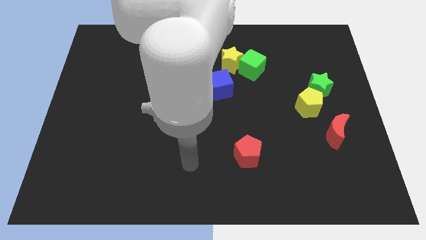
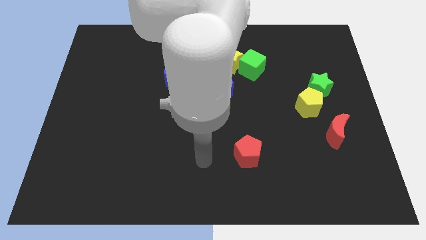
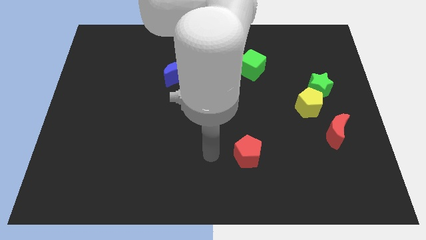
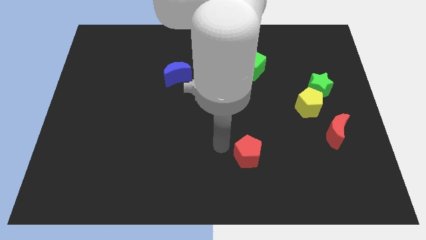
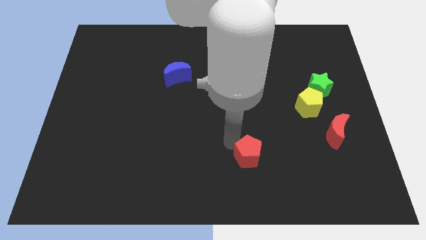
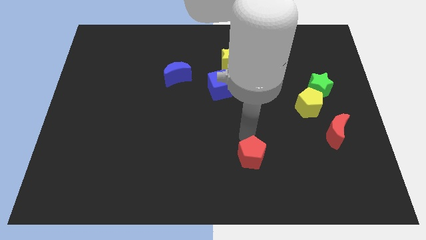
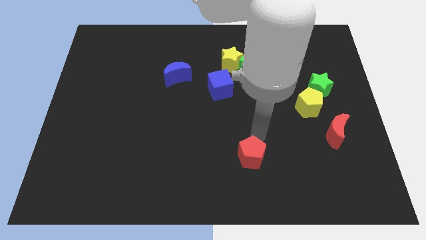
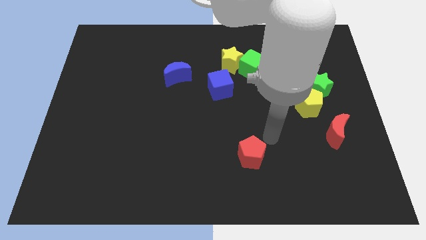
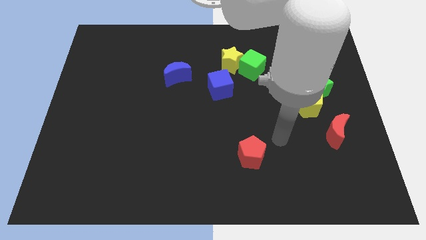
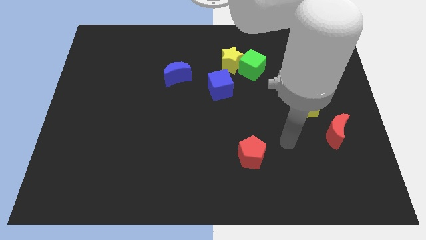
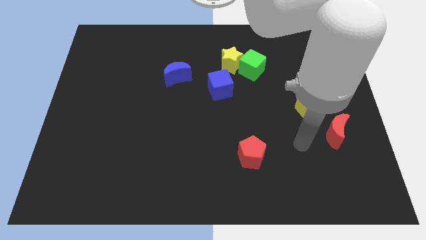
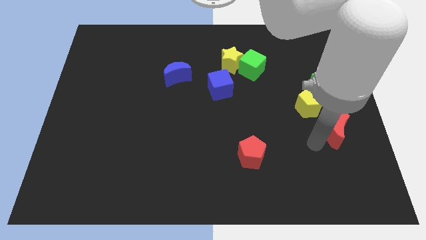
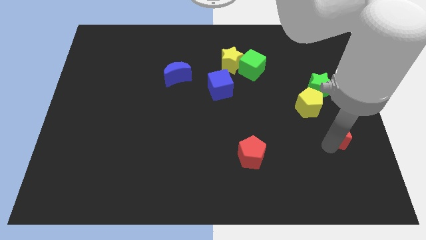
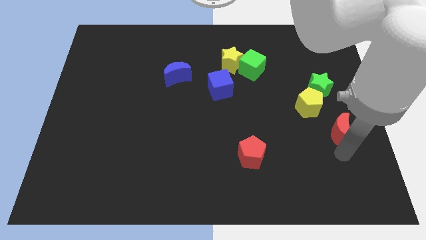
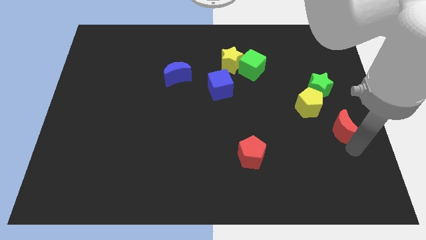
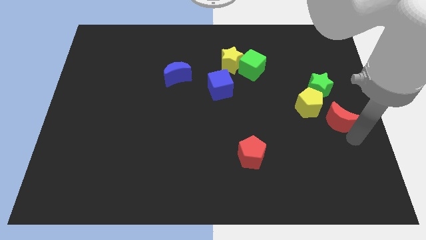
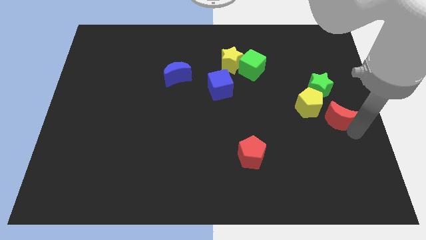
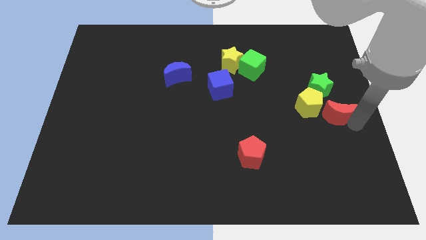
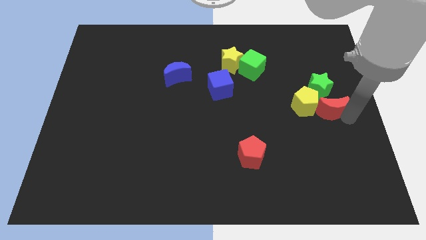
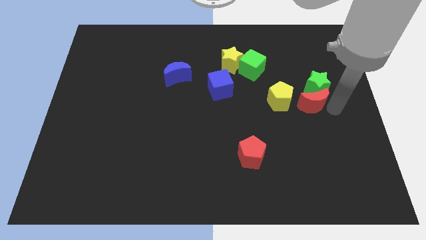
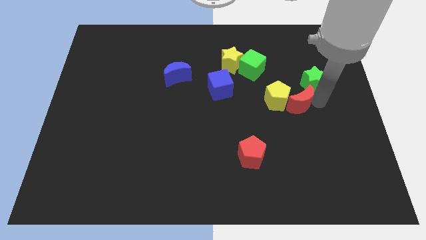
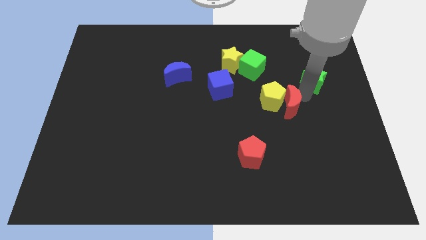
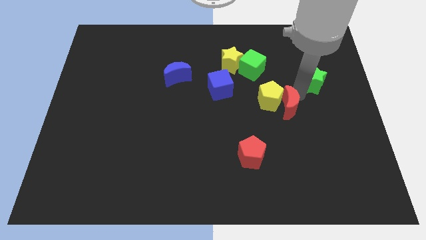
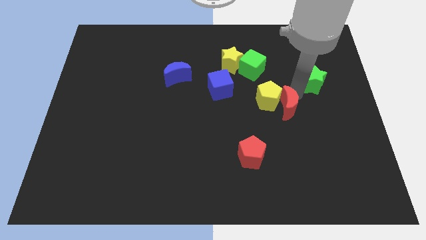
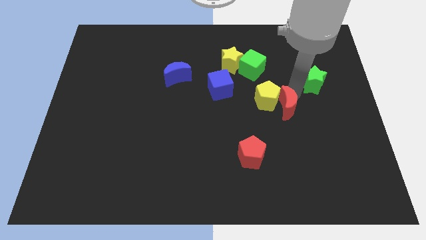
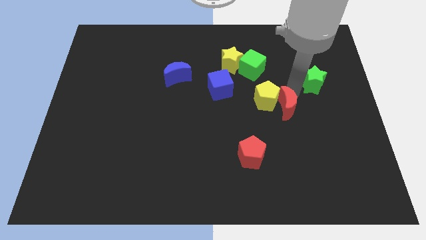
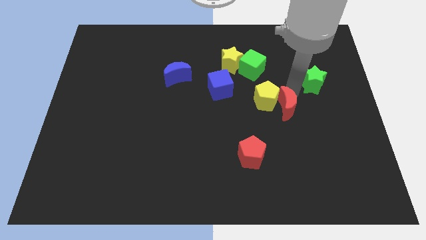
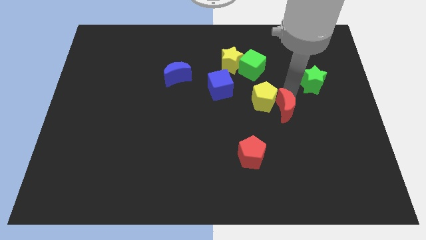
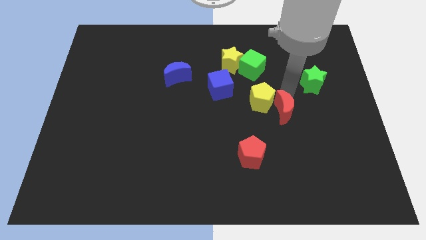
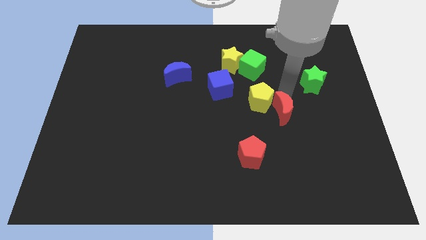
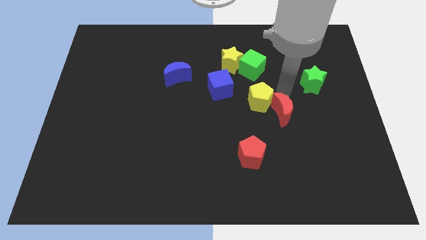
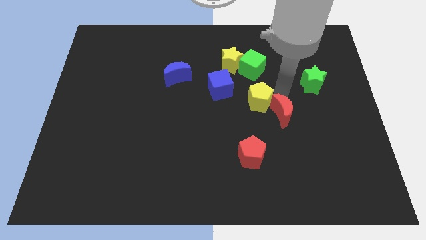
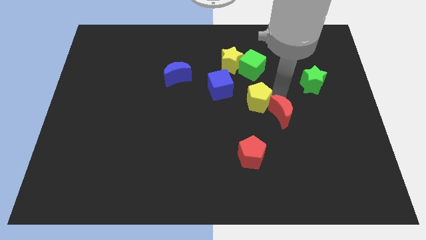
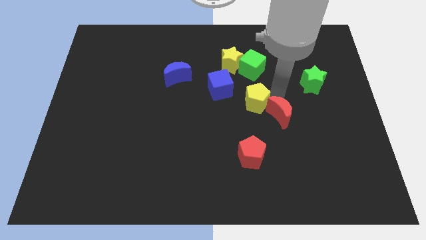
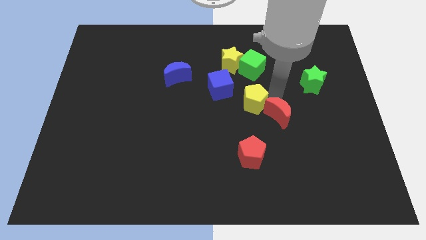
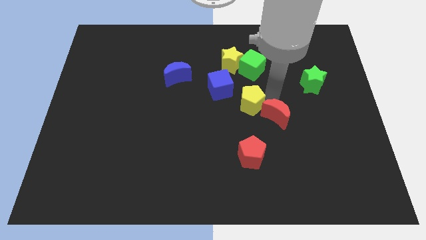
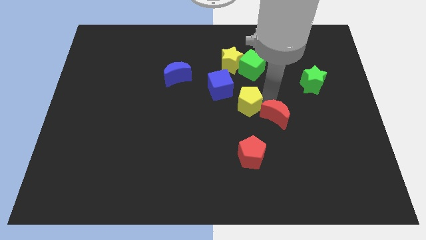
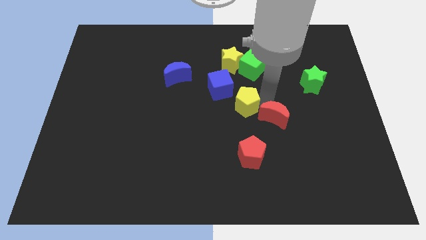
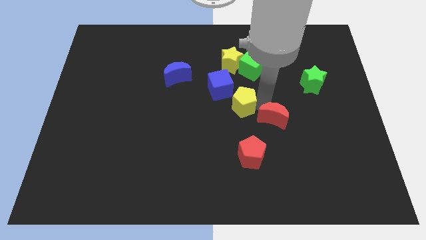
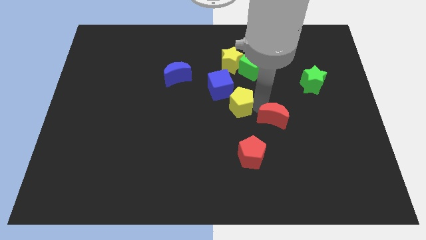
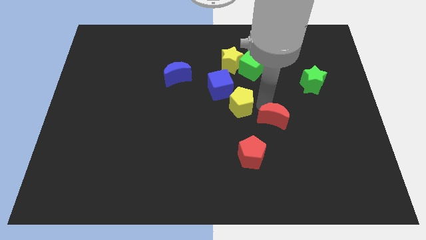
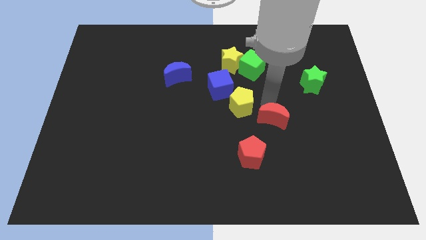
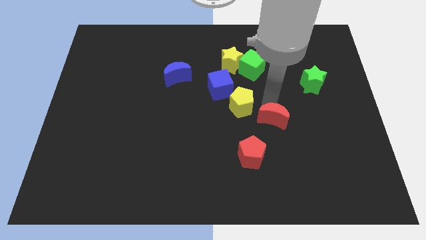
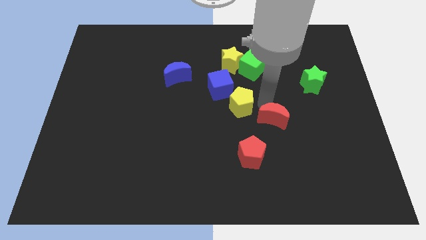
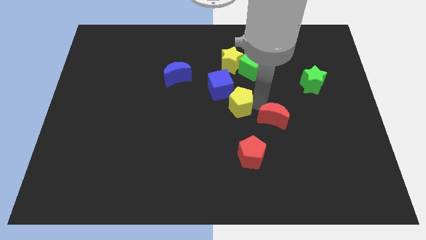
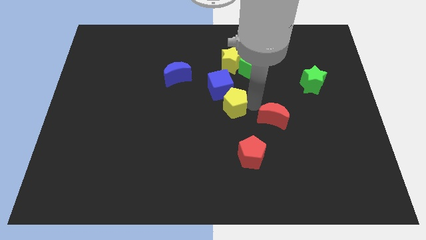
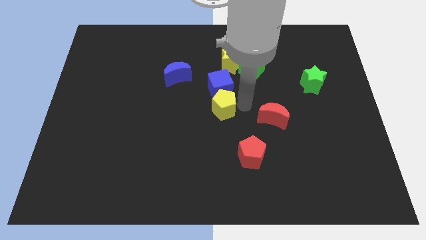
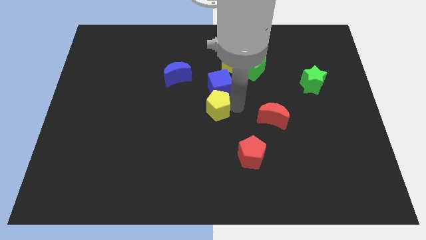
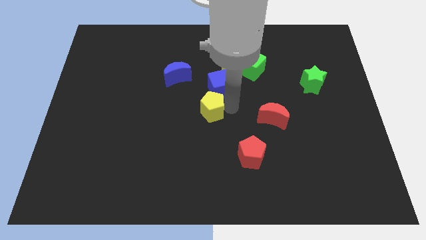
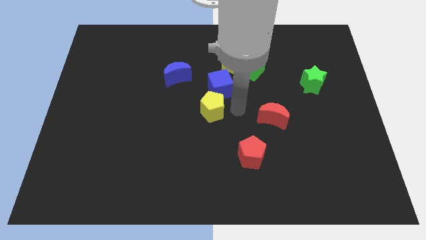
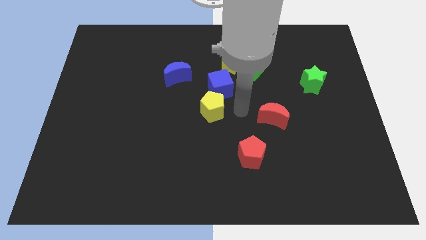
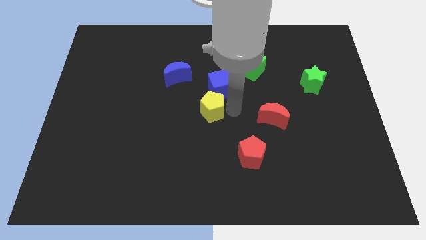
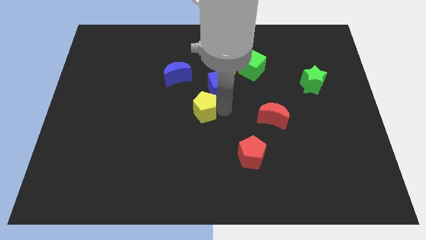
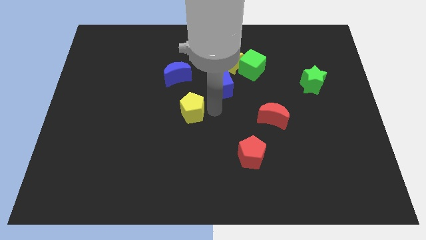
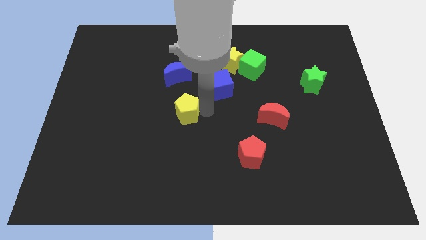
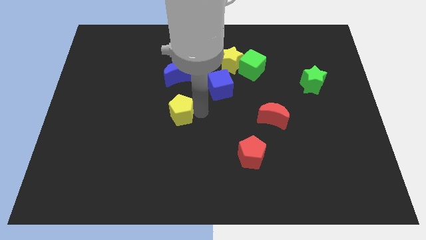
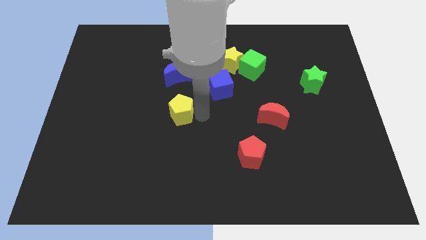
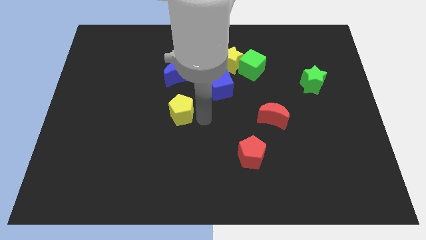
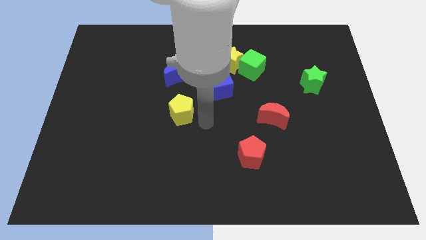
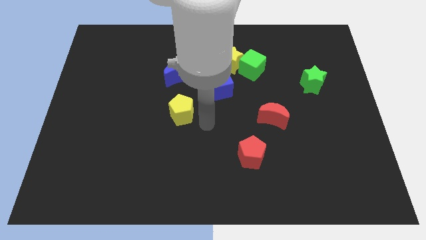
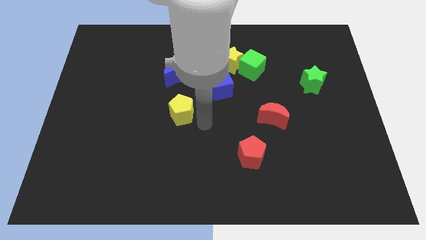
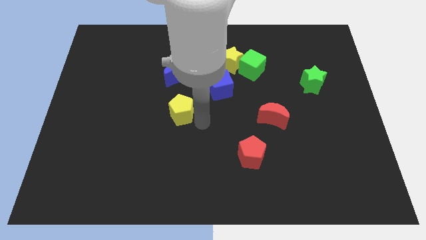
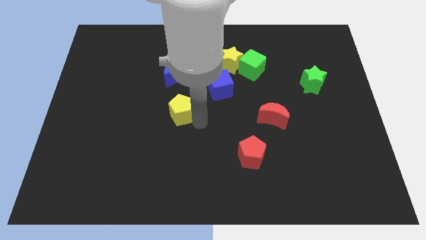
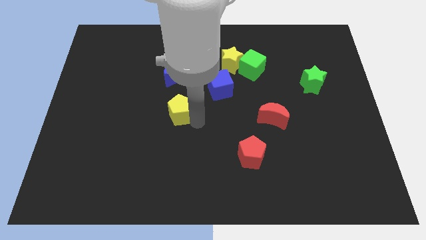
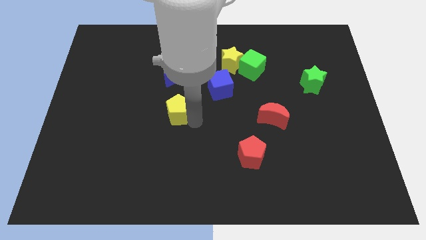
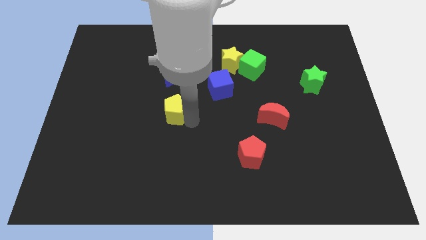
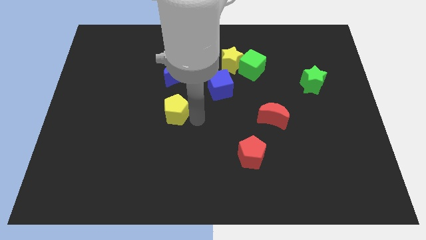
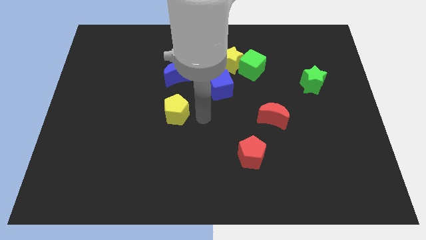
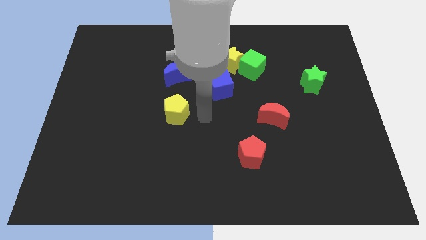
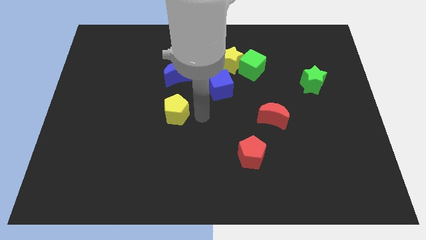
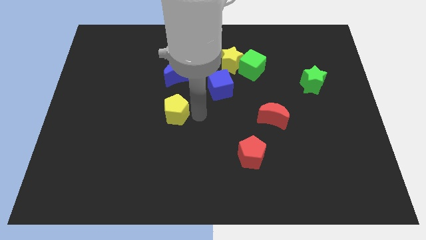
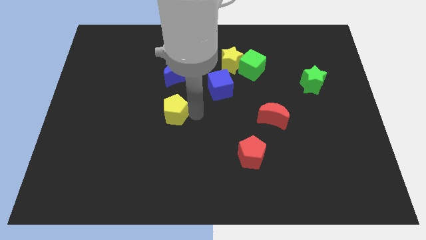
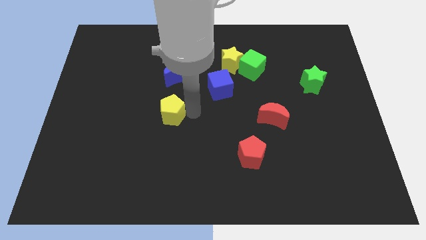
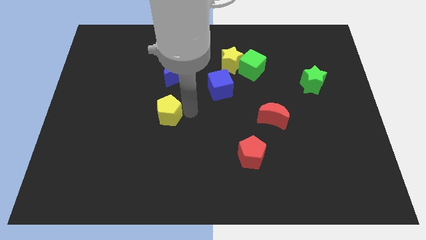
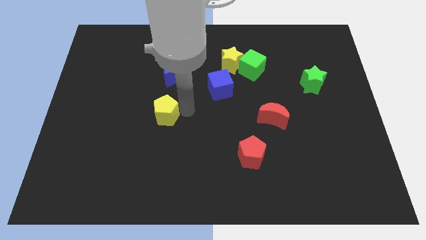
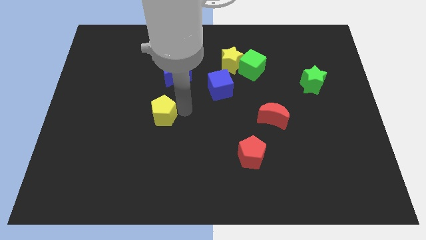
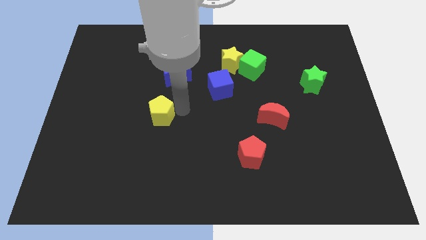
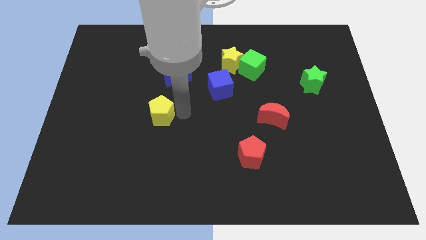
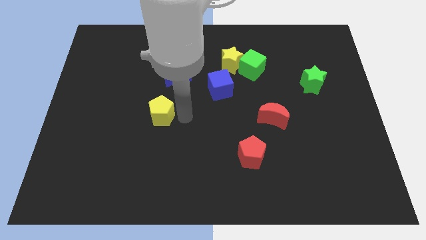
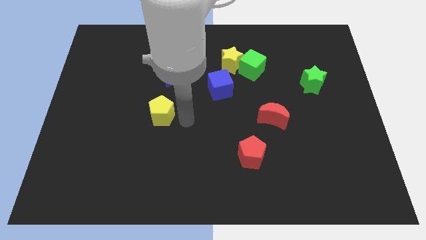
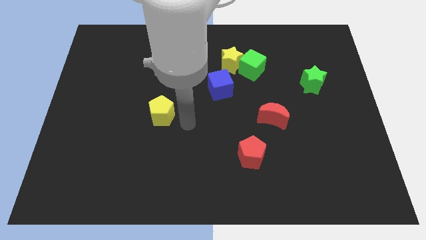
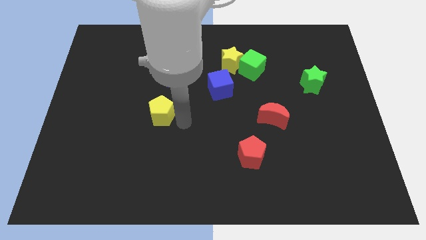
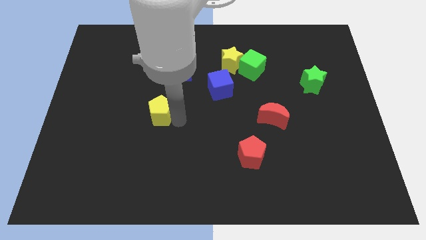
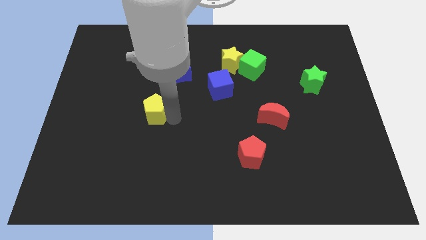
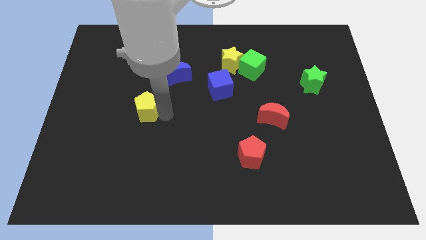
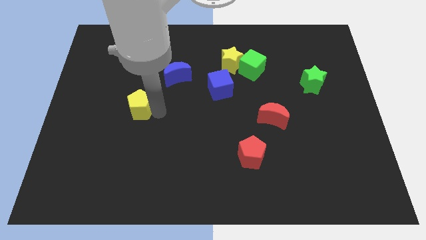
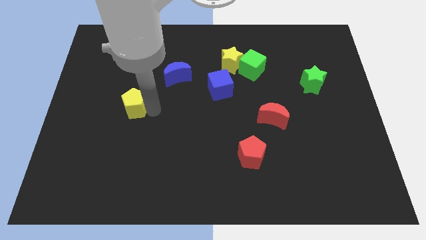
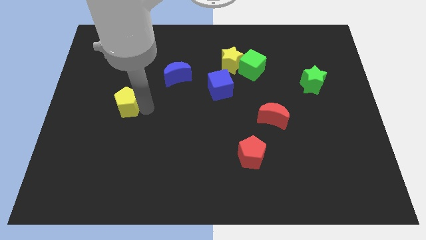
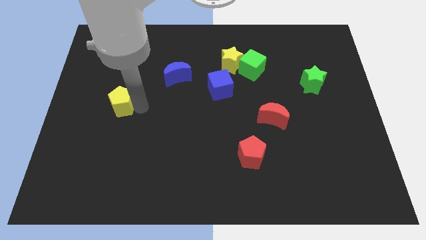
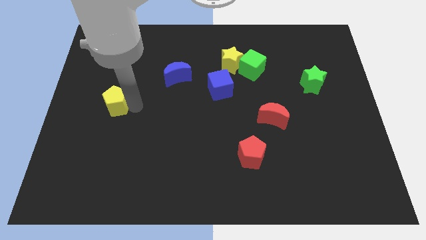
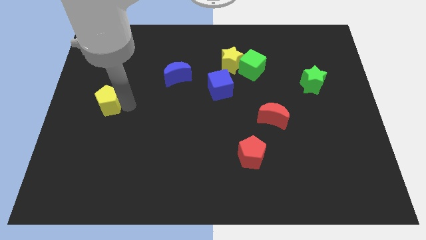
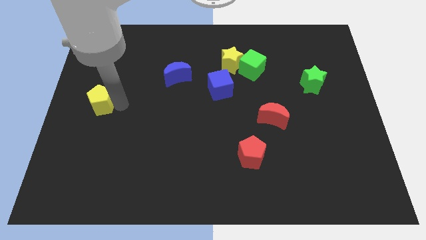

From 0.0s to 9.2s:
put the yellow pentagon to the left side of the board
